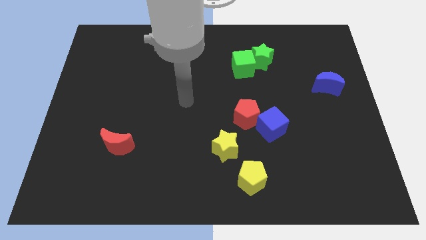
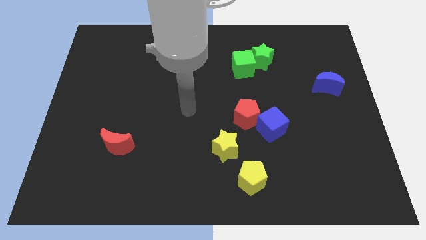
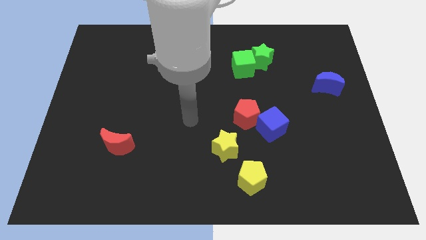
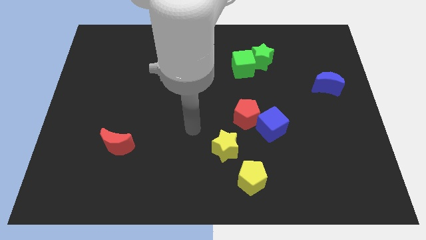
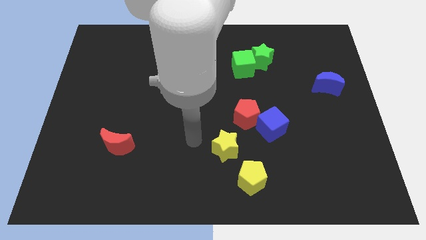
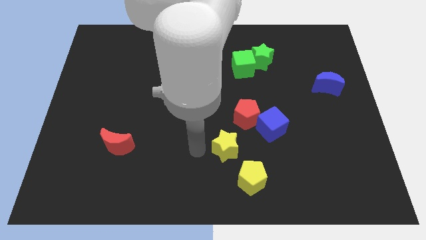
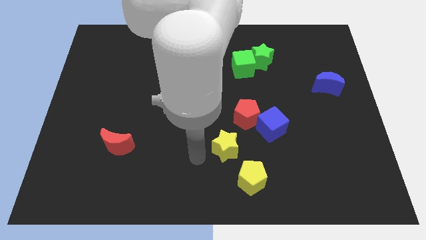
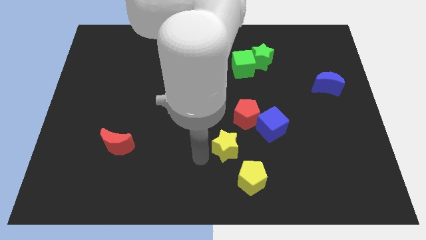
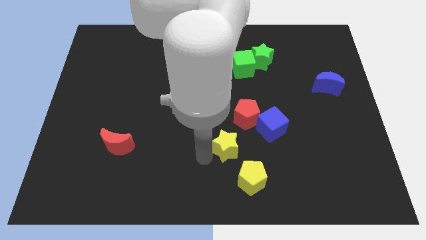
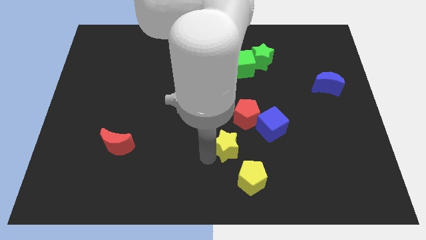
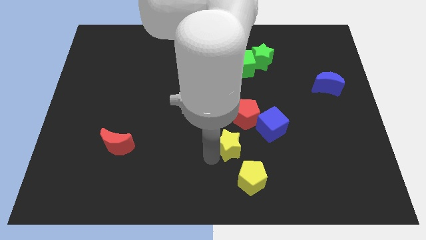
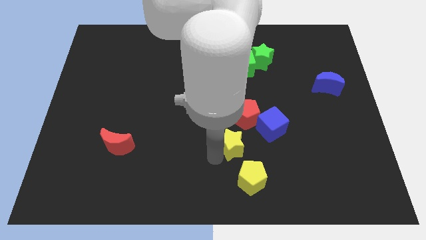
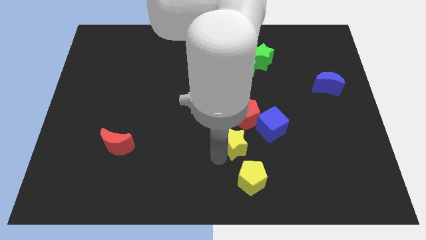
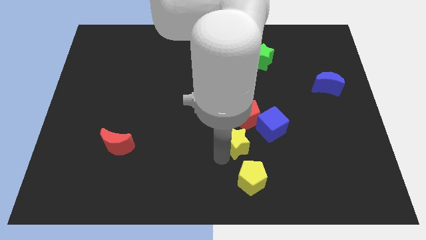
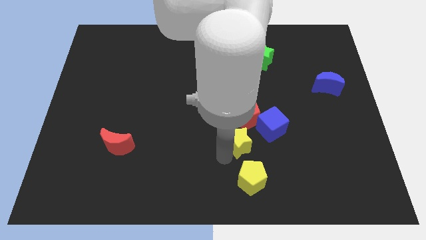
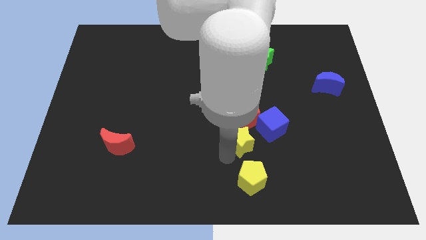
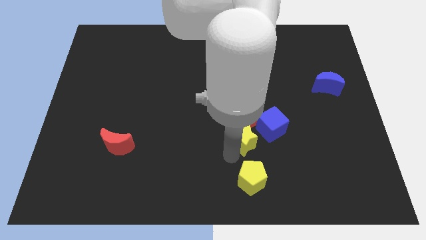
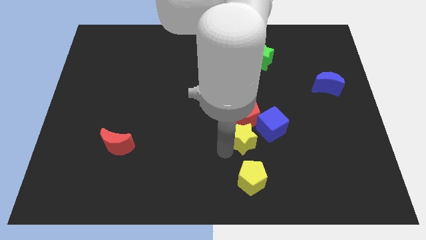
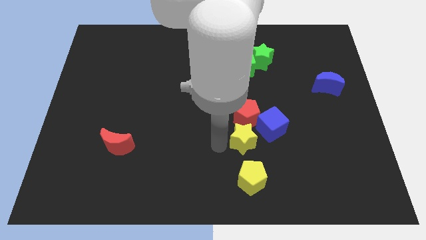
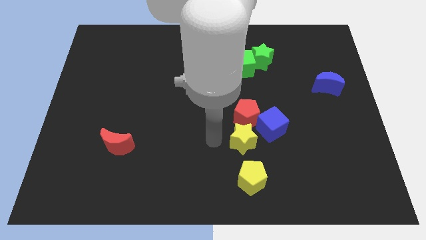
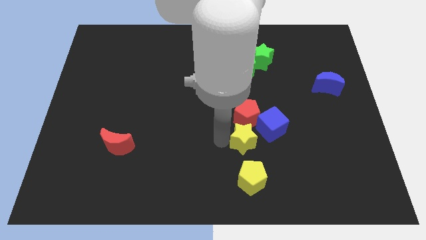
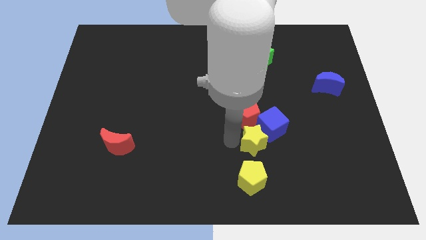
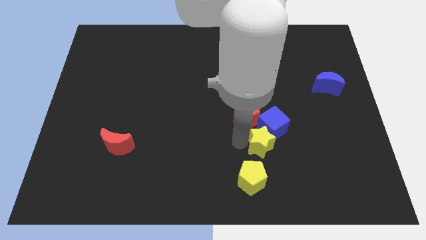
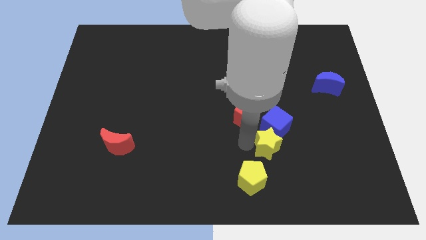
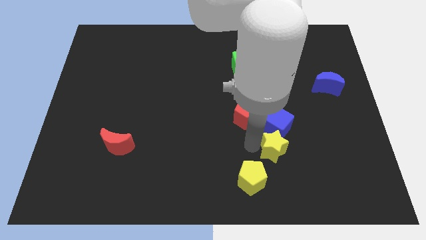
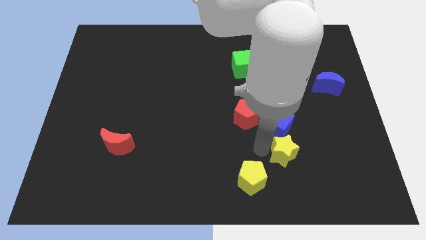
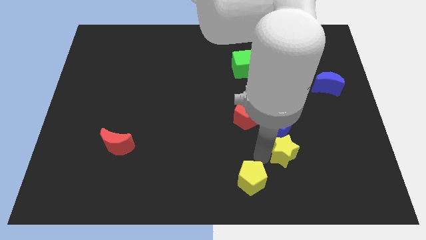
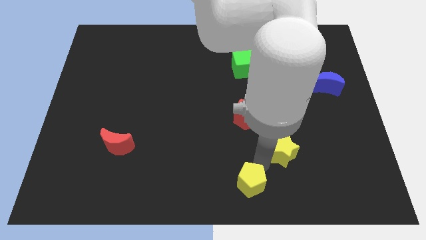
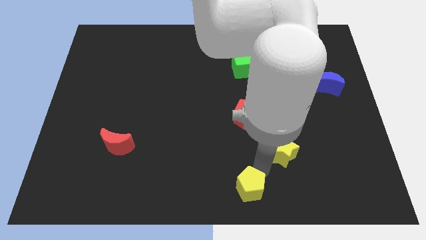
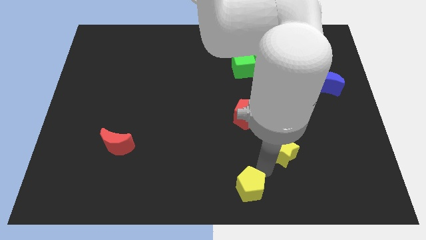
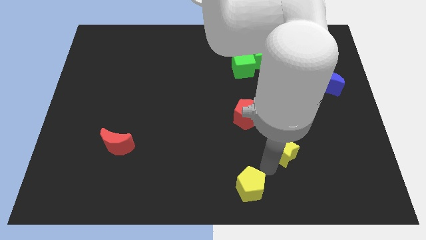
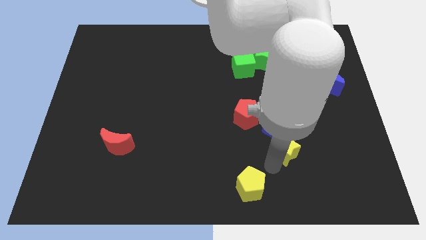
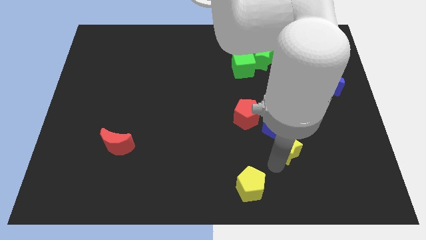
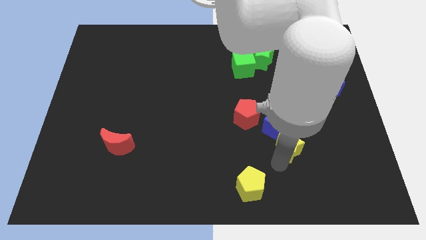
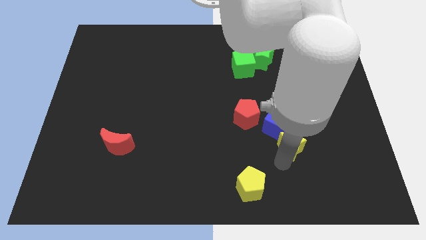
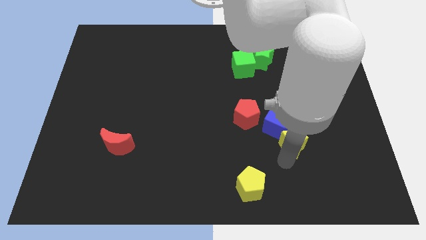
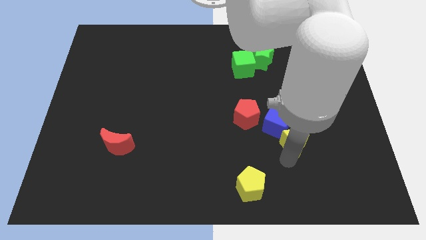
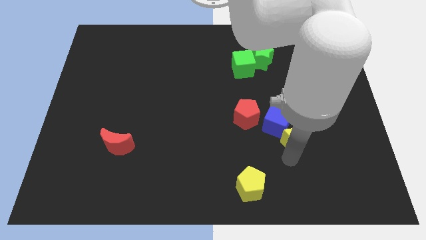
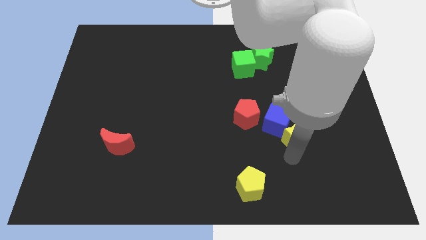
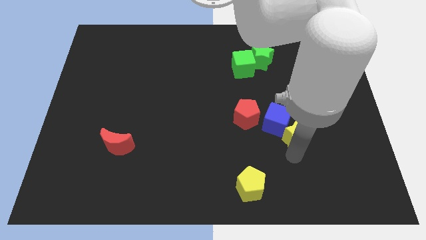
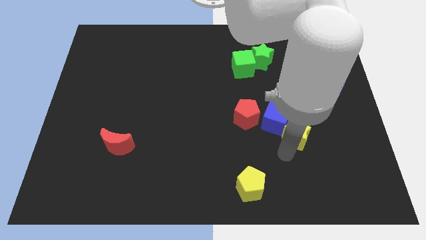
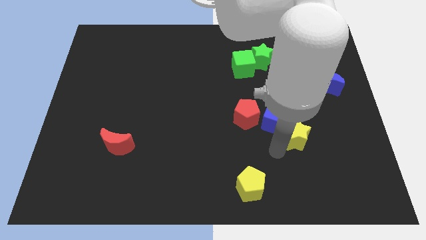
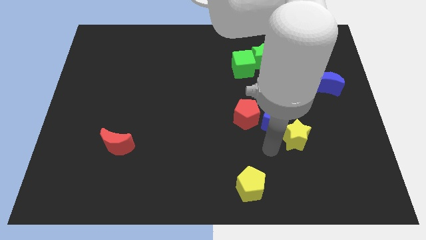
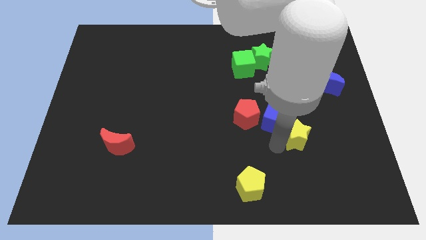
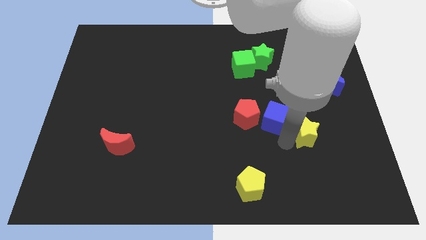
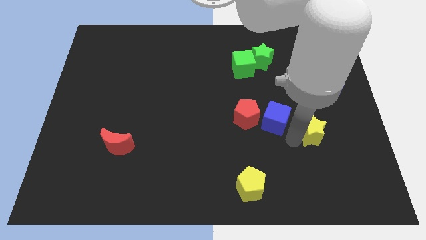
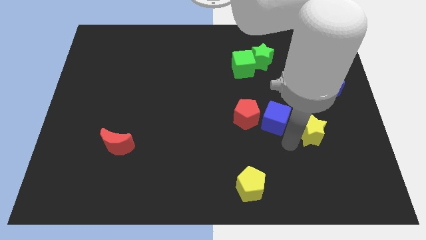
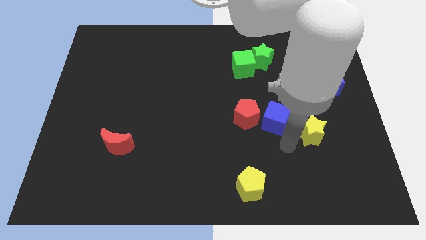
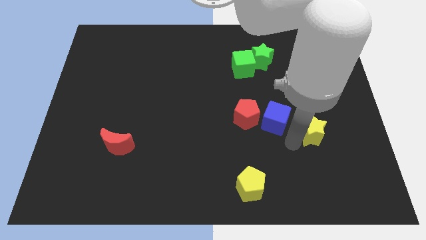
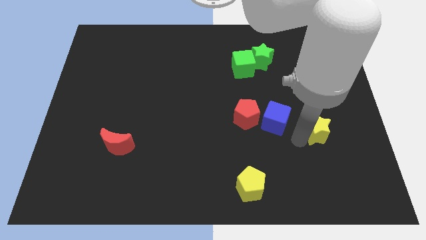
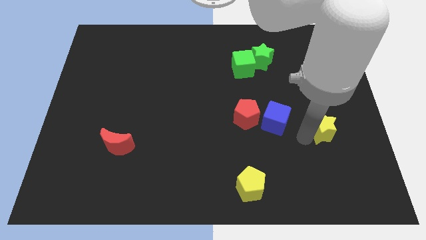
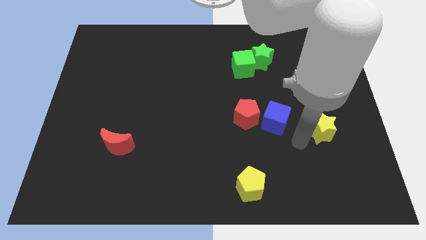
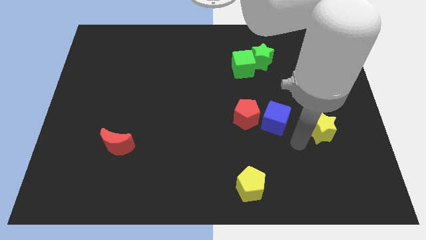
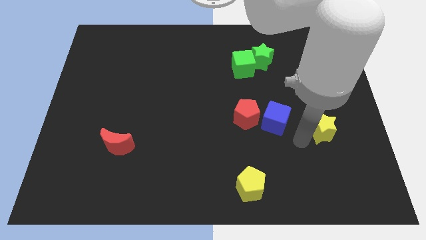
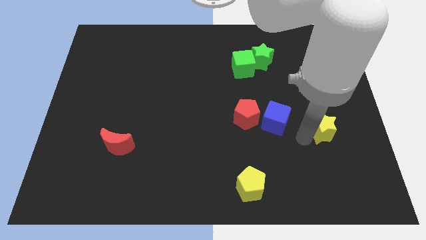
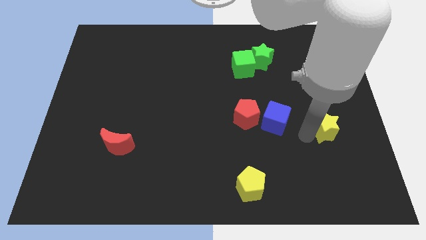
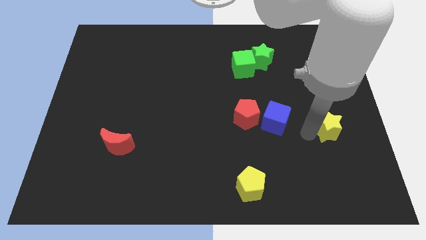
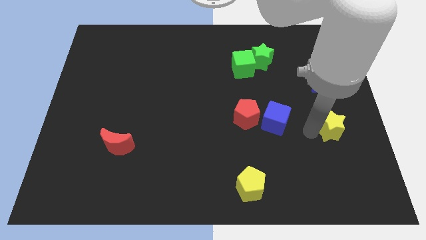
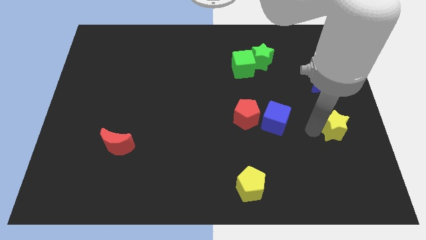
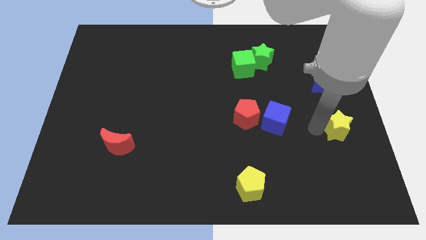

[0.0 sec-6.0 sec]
push the yellow star to the center right

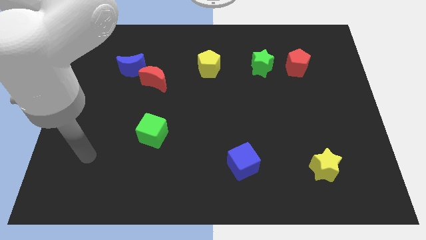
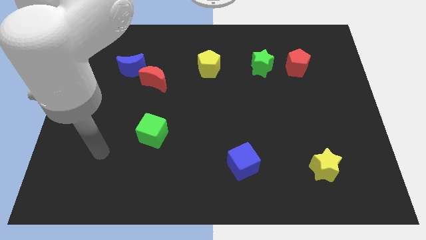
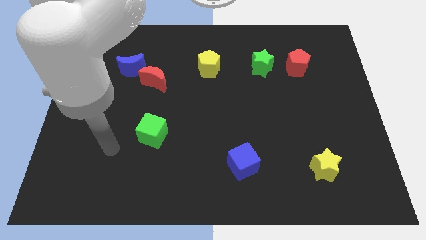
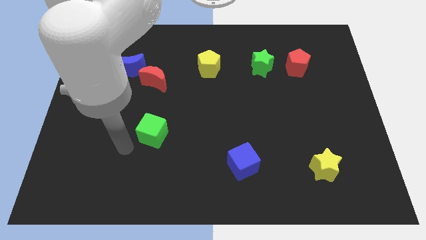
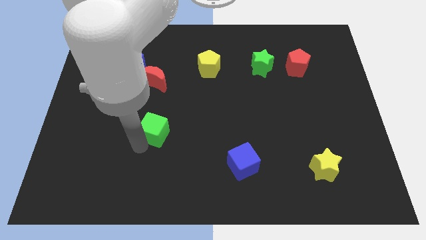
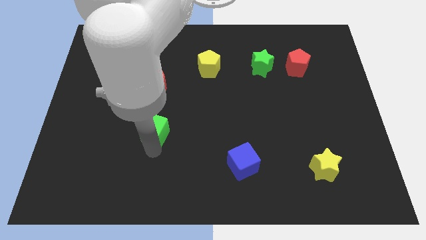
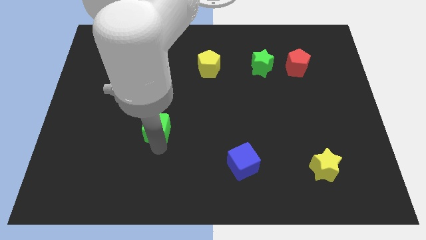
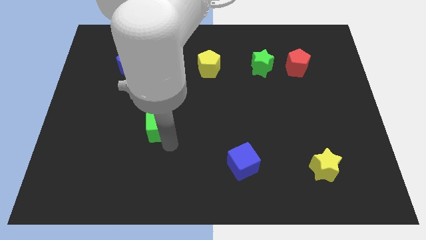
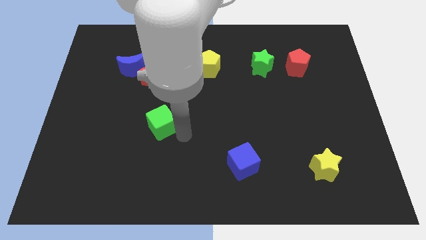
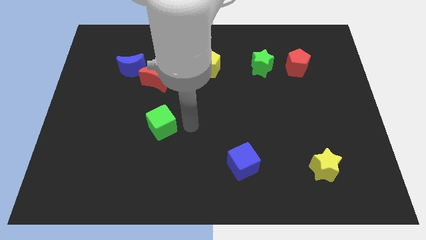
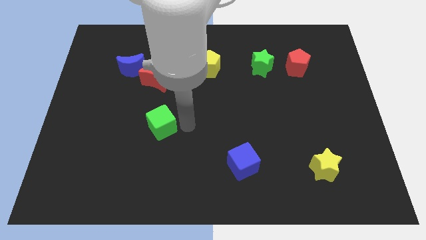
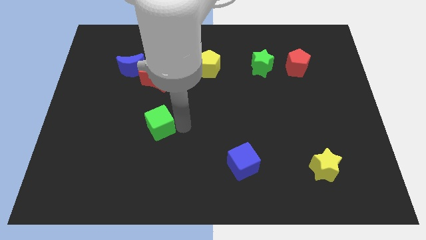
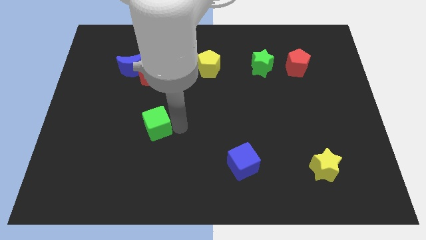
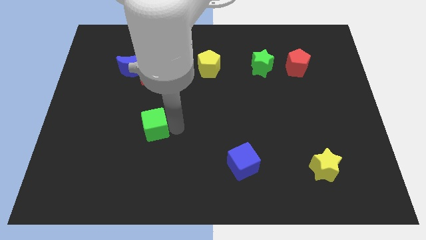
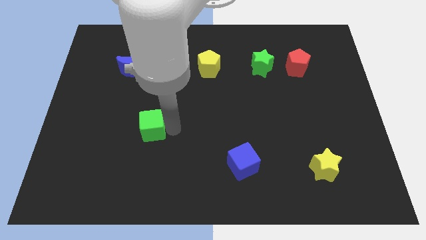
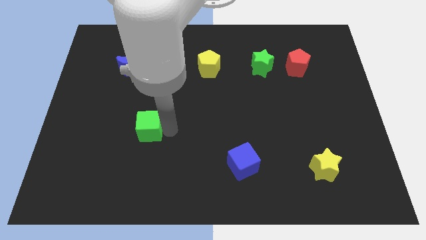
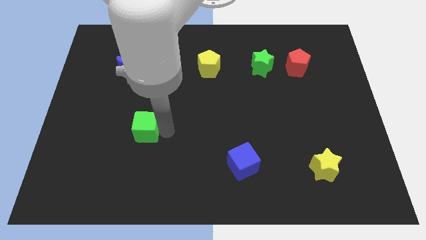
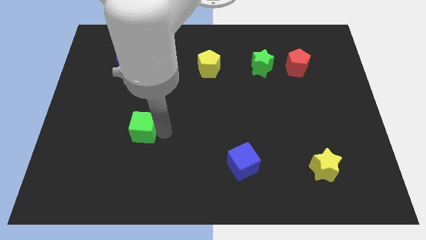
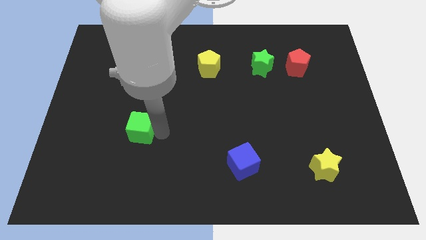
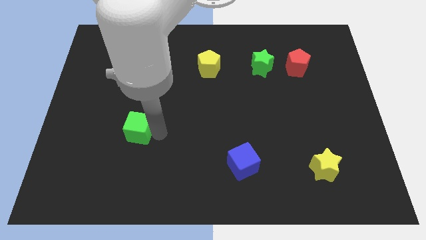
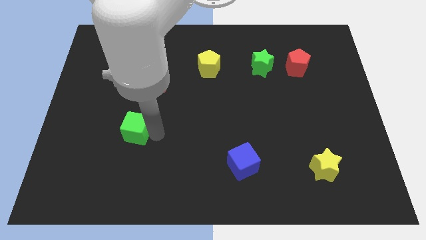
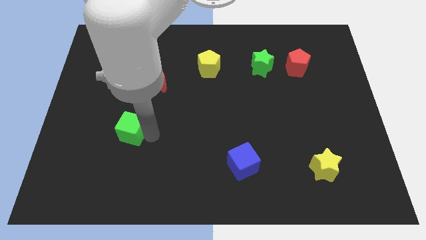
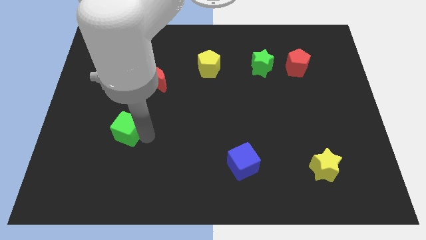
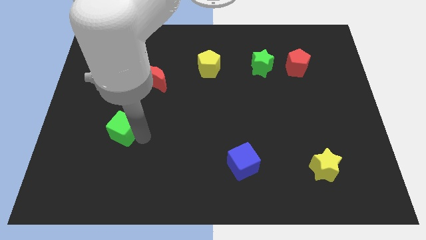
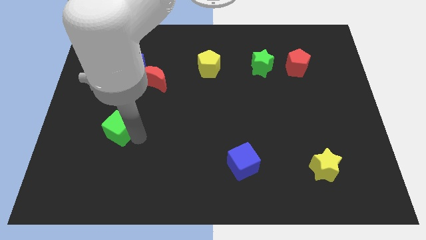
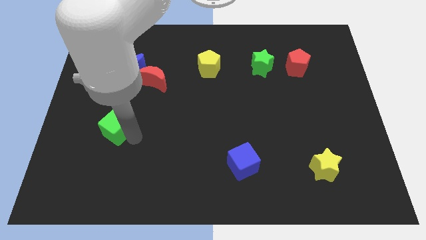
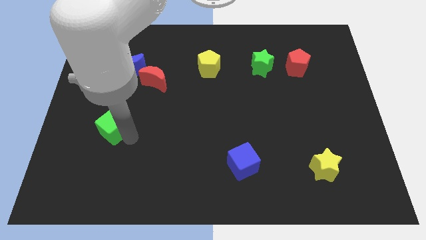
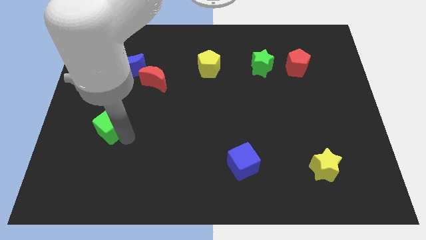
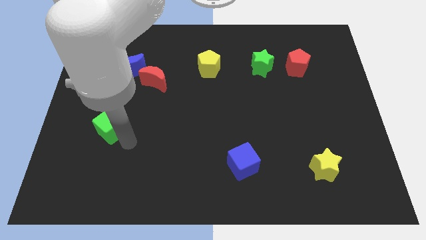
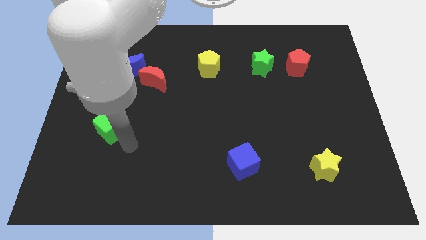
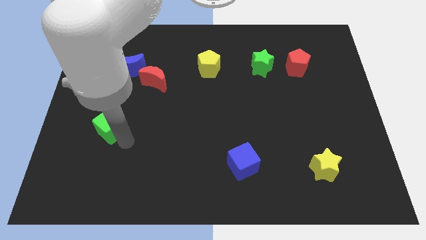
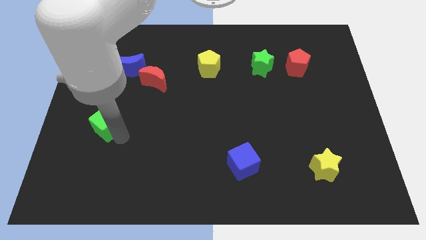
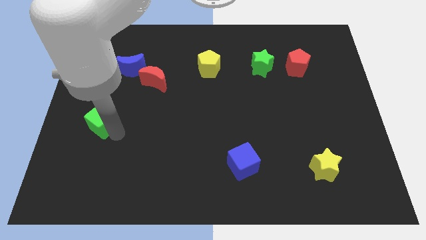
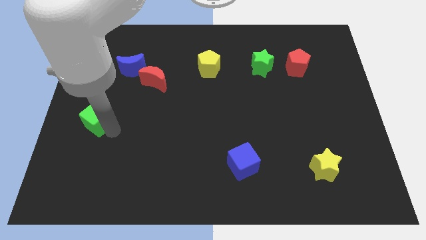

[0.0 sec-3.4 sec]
move the green cube to the left side
